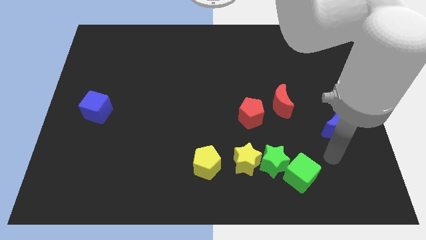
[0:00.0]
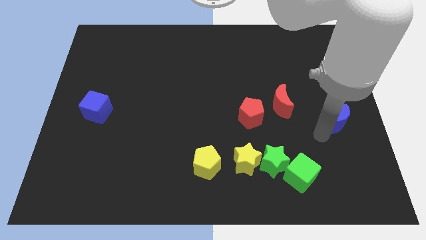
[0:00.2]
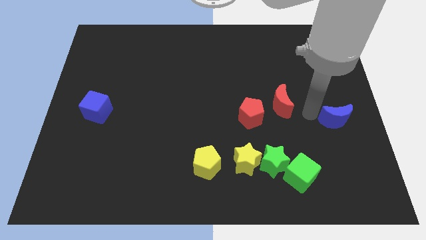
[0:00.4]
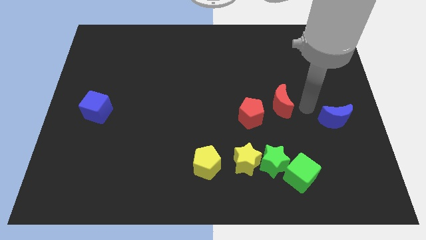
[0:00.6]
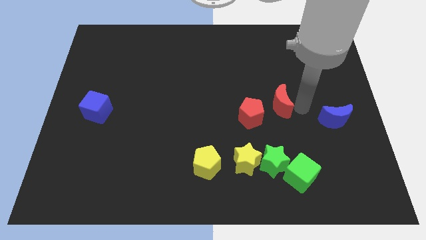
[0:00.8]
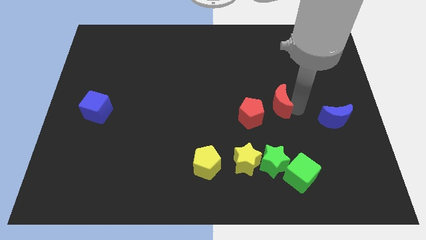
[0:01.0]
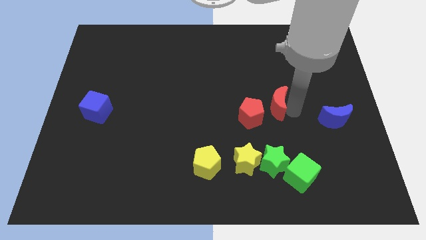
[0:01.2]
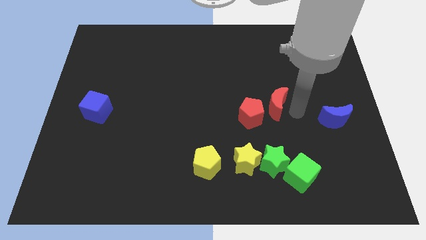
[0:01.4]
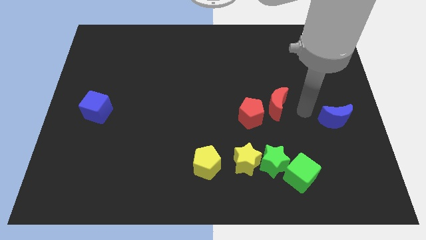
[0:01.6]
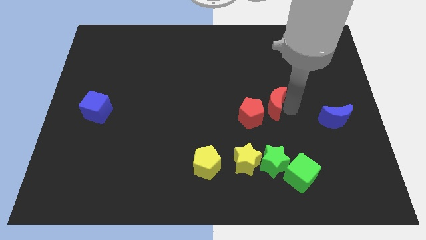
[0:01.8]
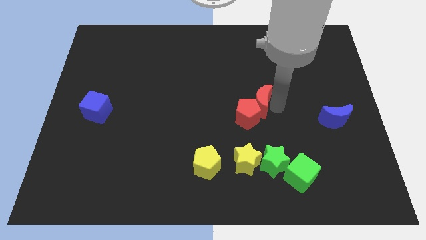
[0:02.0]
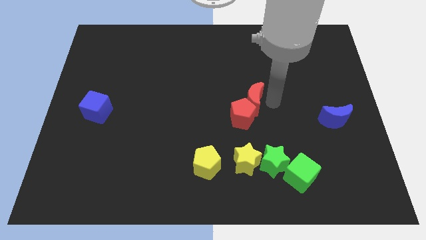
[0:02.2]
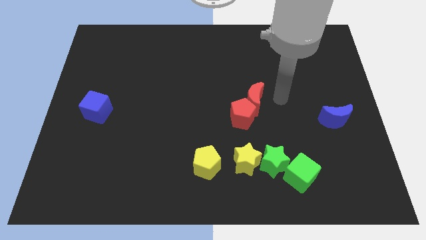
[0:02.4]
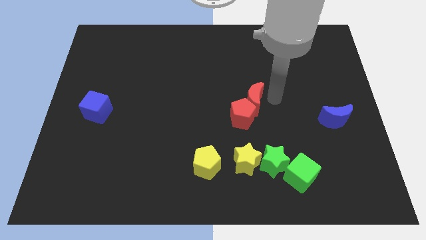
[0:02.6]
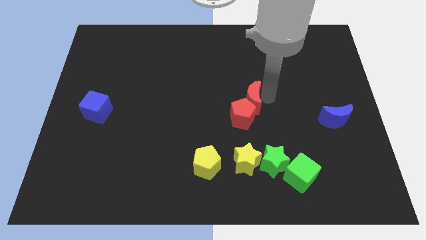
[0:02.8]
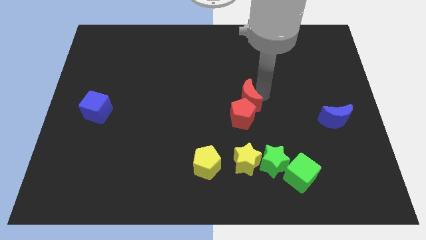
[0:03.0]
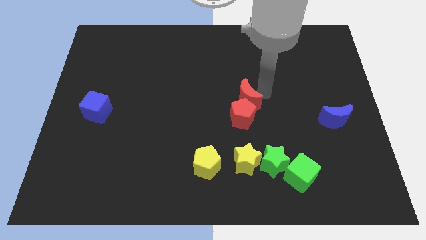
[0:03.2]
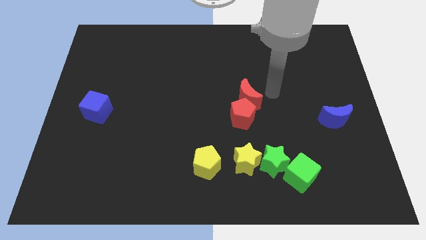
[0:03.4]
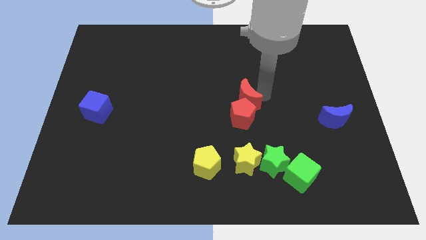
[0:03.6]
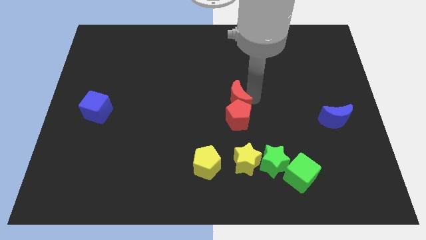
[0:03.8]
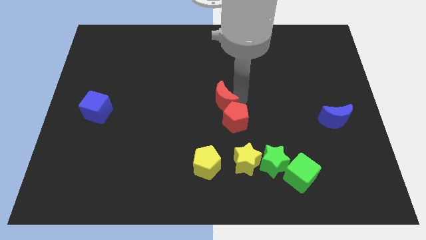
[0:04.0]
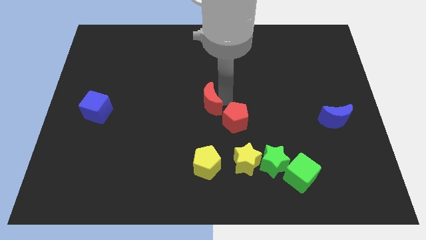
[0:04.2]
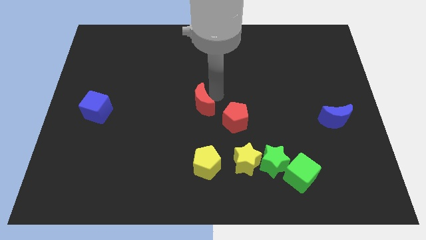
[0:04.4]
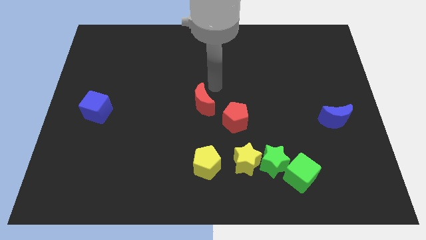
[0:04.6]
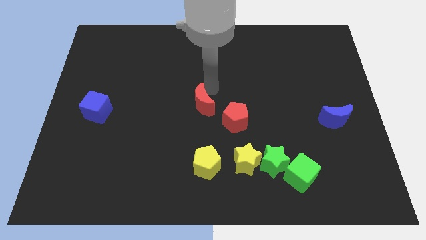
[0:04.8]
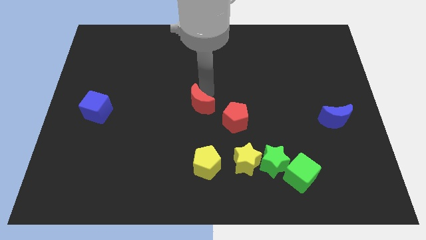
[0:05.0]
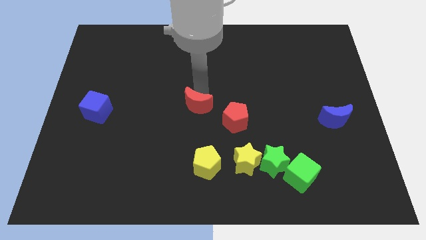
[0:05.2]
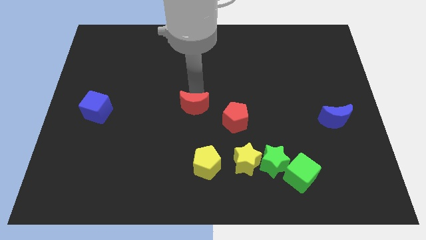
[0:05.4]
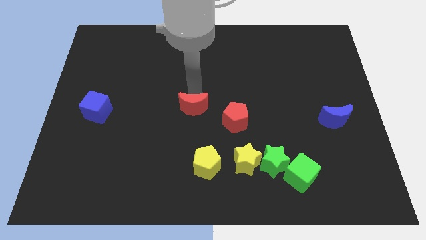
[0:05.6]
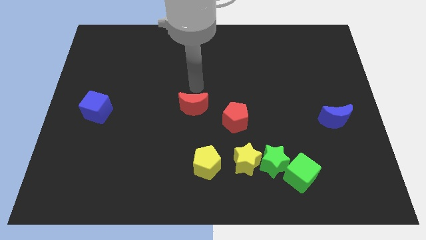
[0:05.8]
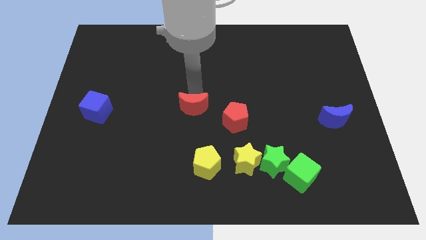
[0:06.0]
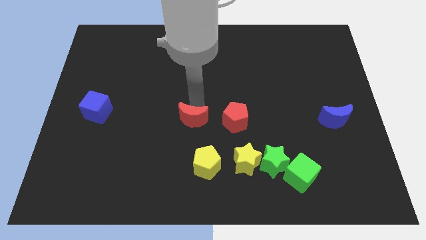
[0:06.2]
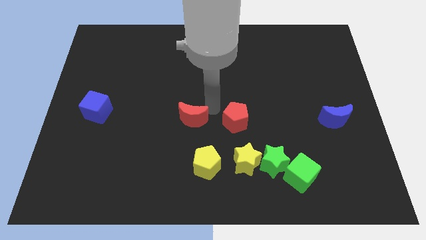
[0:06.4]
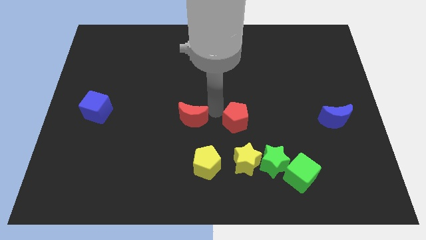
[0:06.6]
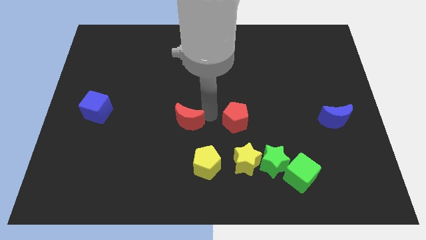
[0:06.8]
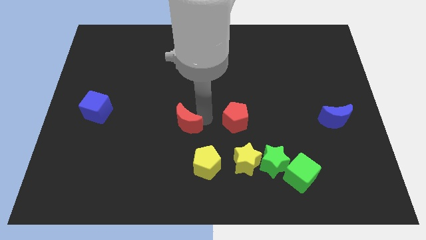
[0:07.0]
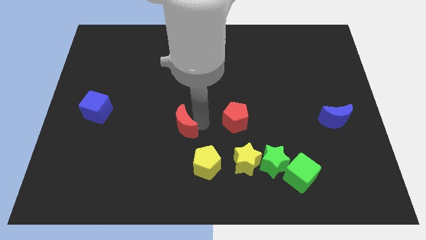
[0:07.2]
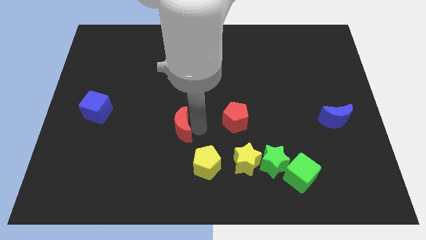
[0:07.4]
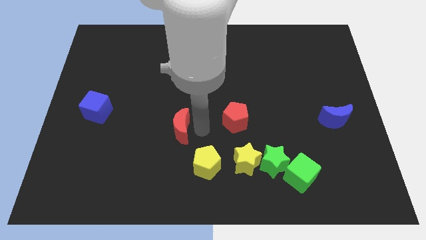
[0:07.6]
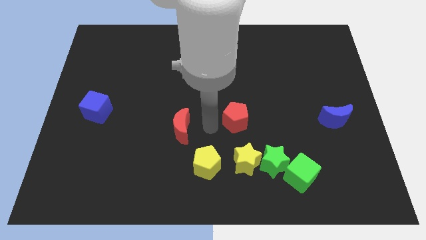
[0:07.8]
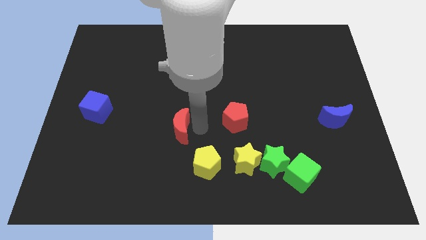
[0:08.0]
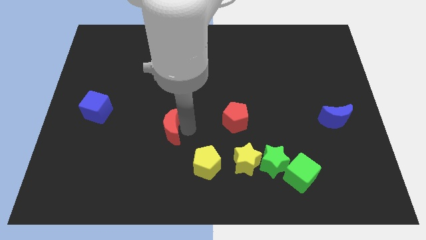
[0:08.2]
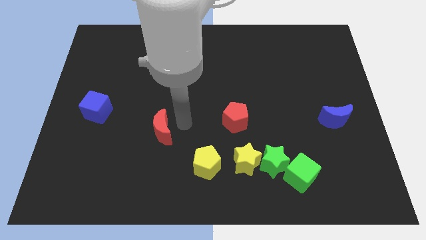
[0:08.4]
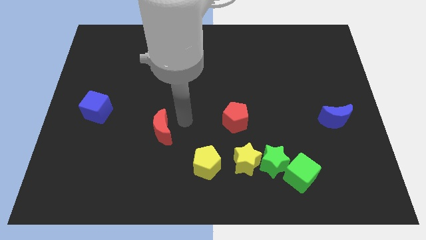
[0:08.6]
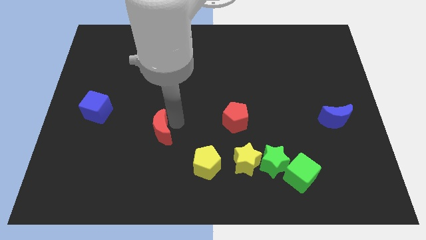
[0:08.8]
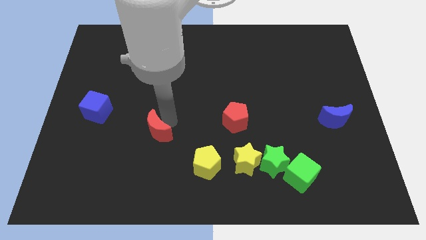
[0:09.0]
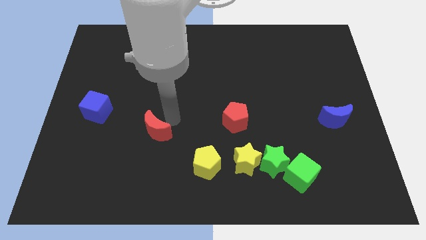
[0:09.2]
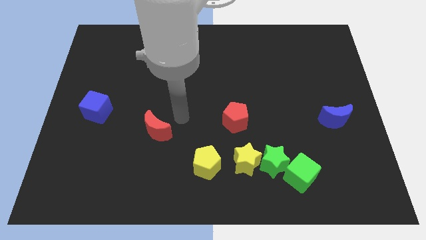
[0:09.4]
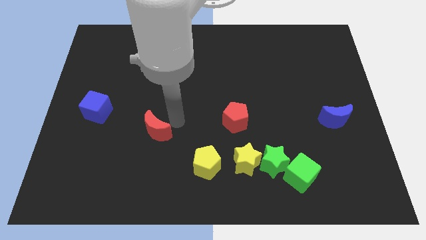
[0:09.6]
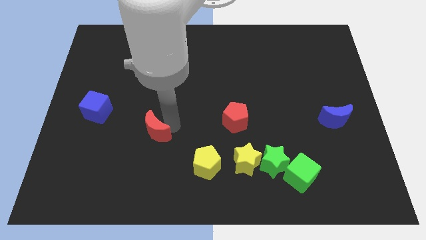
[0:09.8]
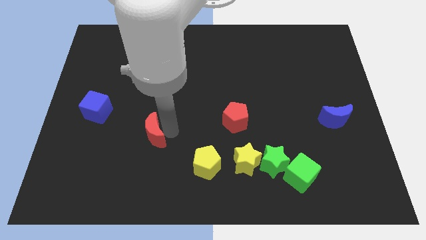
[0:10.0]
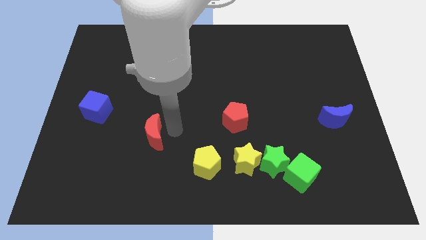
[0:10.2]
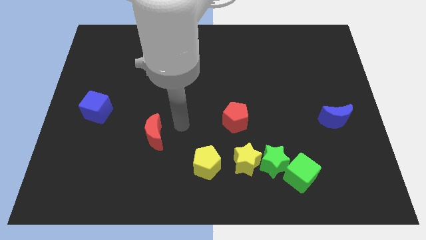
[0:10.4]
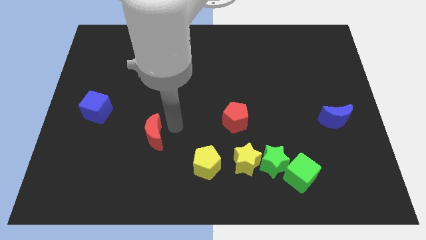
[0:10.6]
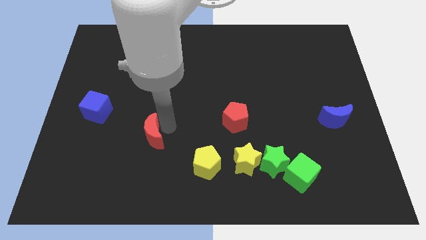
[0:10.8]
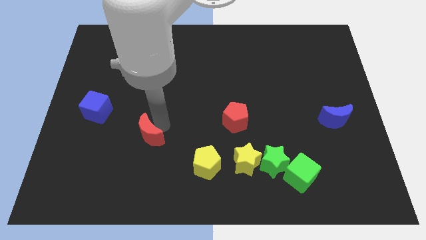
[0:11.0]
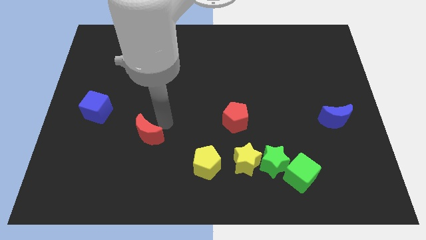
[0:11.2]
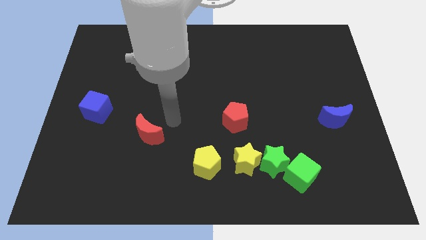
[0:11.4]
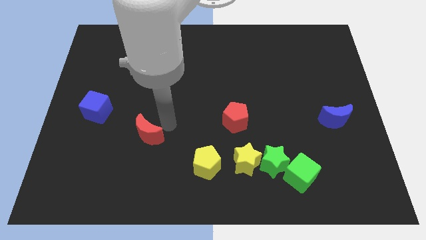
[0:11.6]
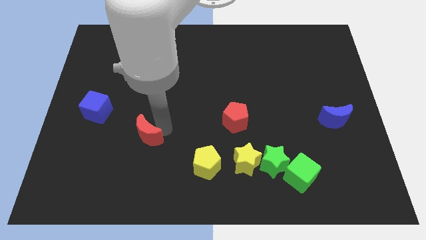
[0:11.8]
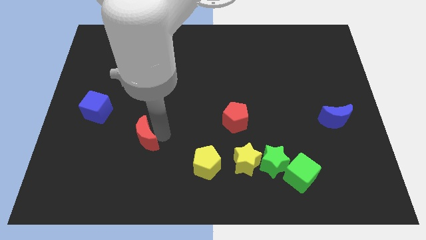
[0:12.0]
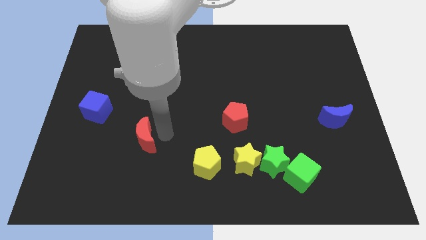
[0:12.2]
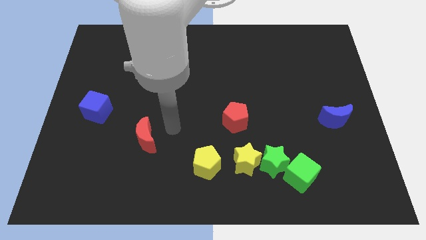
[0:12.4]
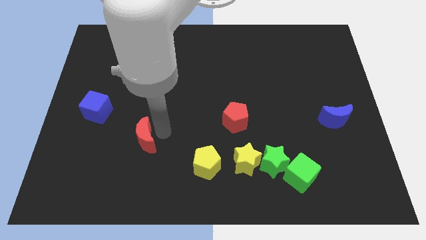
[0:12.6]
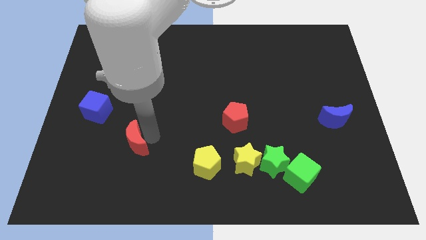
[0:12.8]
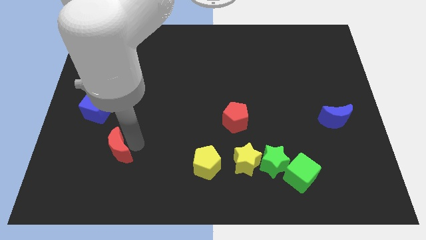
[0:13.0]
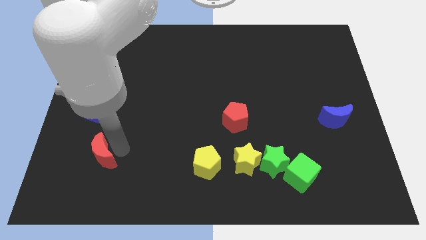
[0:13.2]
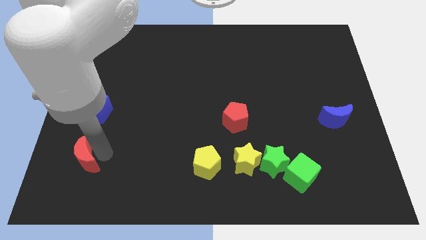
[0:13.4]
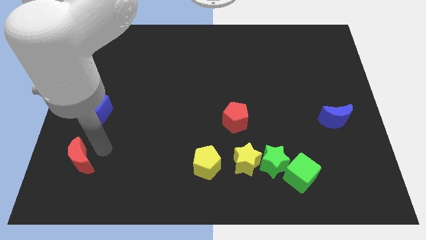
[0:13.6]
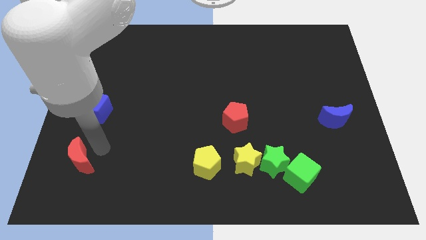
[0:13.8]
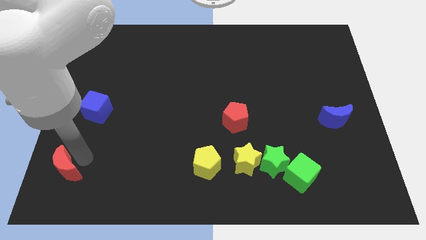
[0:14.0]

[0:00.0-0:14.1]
move the red moon to the bottom left of the board
